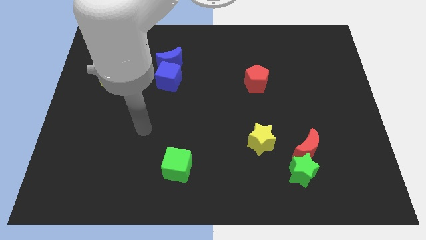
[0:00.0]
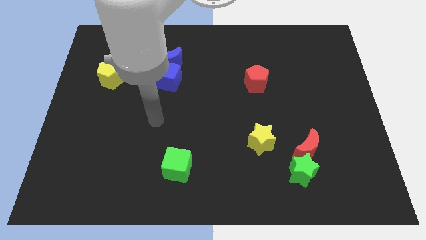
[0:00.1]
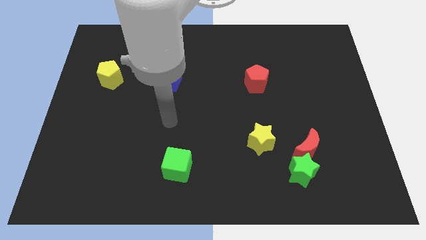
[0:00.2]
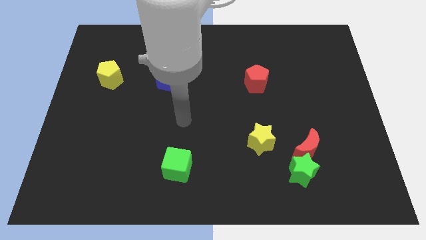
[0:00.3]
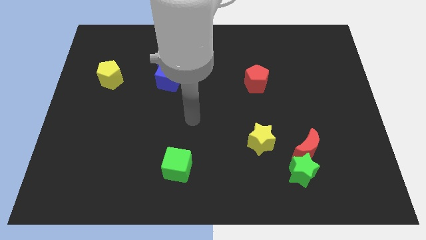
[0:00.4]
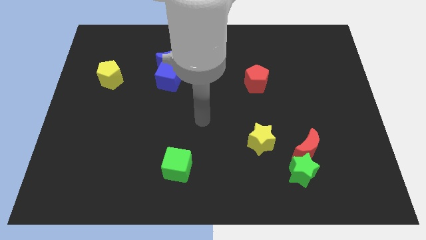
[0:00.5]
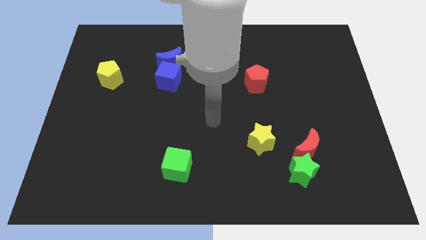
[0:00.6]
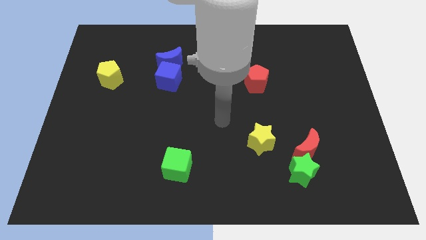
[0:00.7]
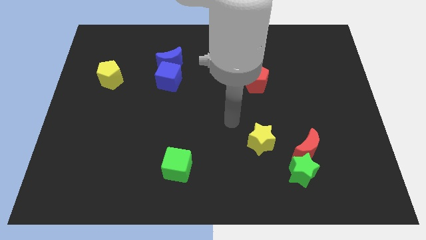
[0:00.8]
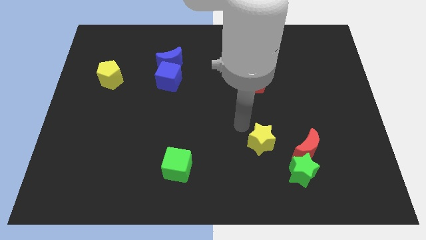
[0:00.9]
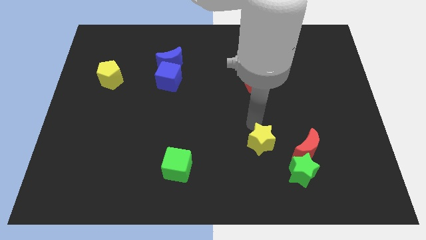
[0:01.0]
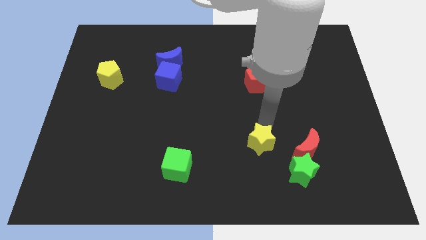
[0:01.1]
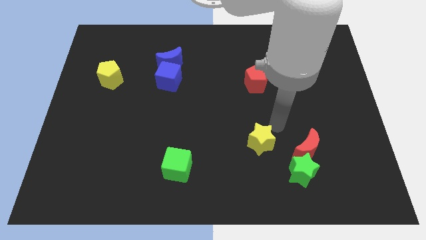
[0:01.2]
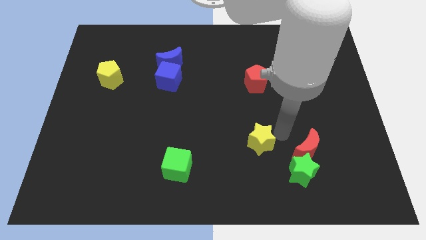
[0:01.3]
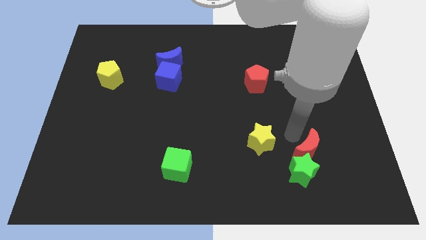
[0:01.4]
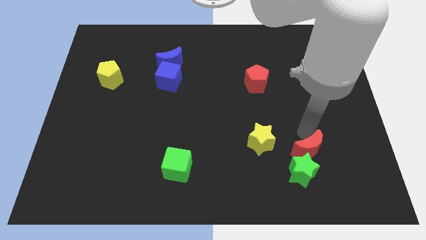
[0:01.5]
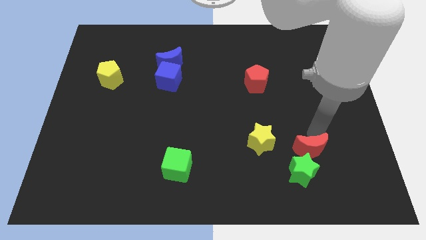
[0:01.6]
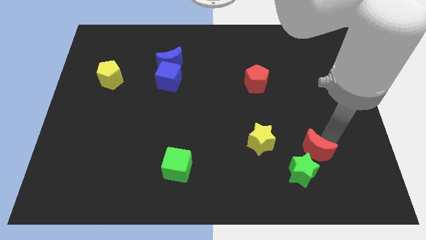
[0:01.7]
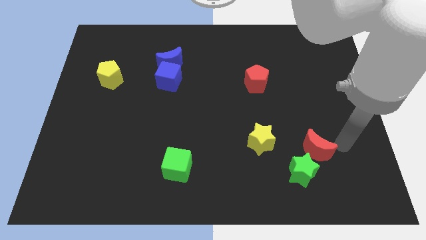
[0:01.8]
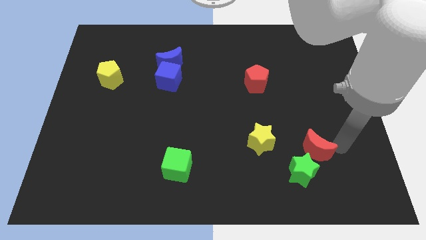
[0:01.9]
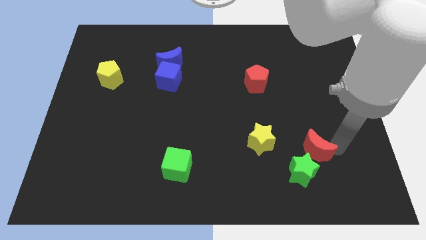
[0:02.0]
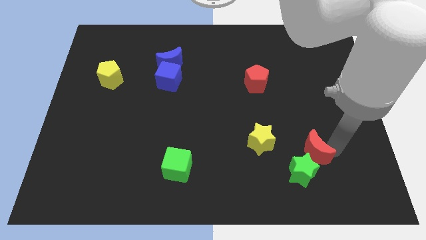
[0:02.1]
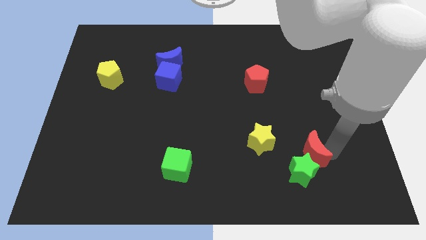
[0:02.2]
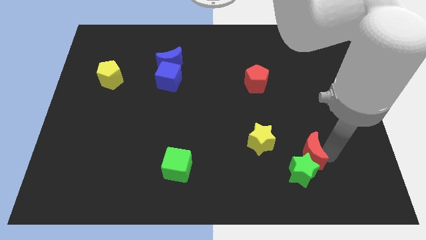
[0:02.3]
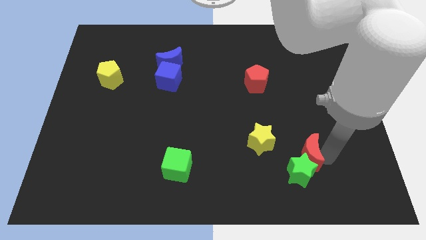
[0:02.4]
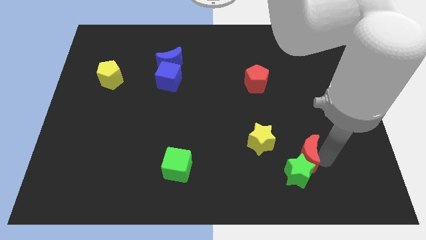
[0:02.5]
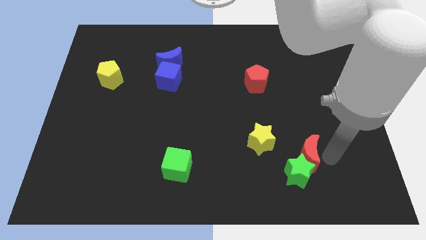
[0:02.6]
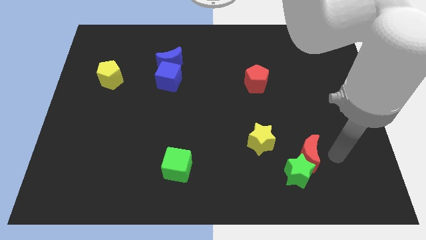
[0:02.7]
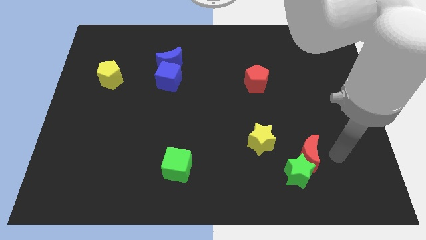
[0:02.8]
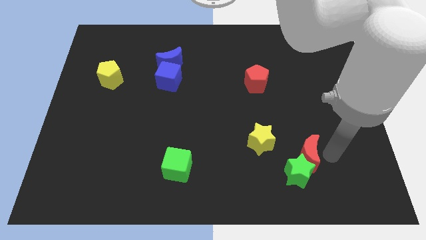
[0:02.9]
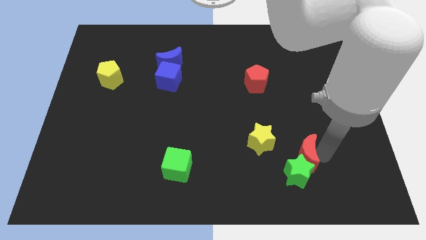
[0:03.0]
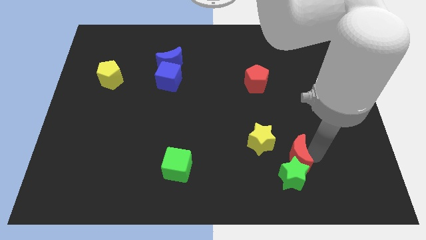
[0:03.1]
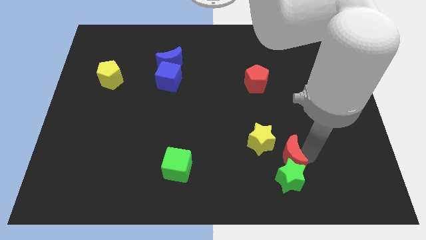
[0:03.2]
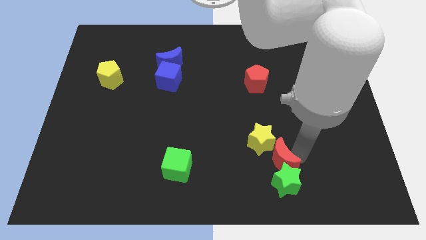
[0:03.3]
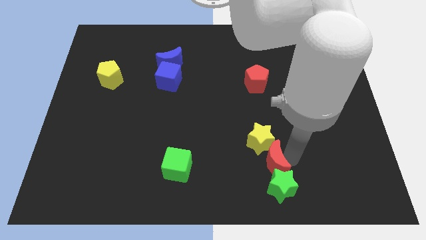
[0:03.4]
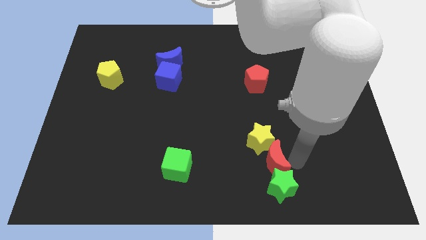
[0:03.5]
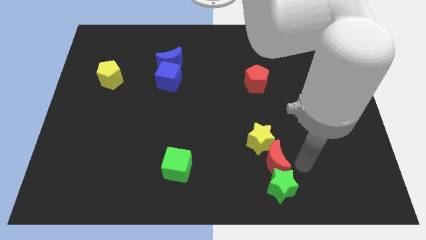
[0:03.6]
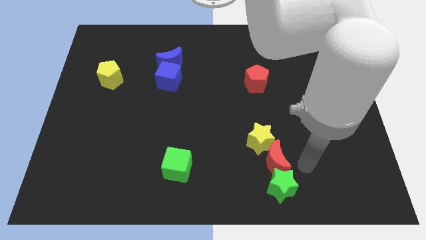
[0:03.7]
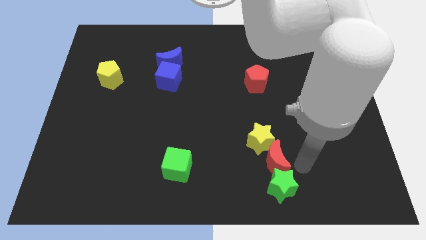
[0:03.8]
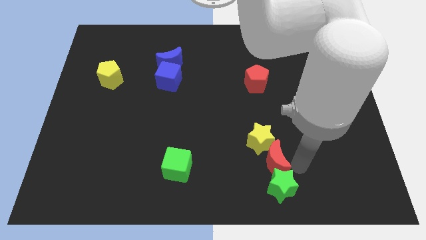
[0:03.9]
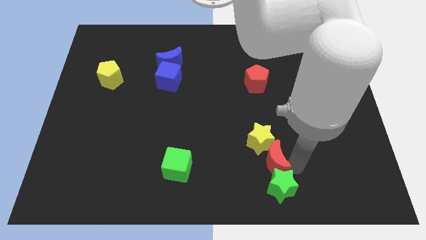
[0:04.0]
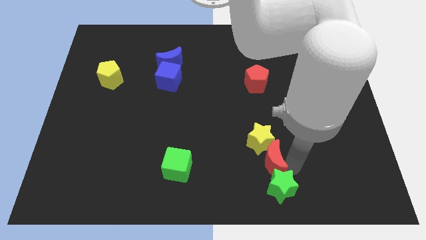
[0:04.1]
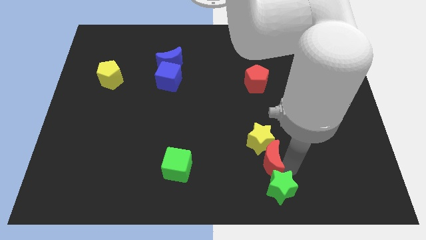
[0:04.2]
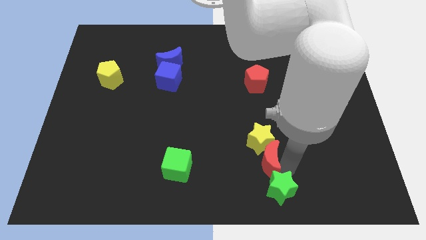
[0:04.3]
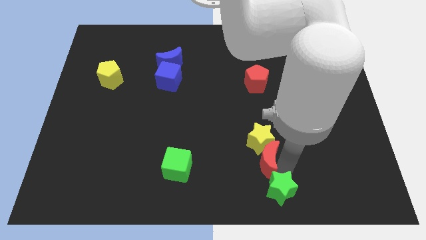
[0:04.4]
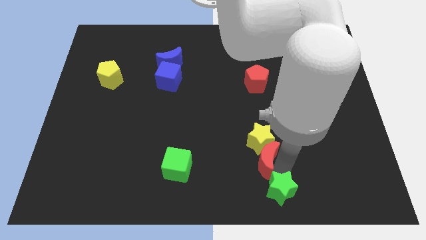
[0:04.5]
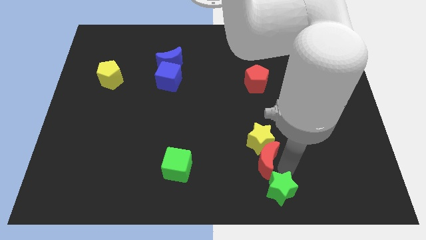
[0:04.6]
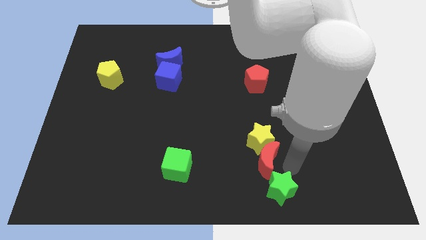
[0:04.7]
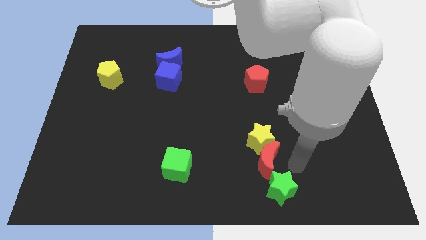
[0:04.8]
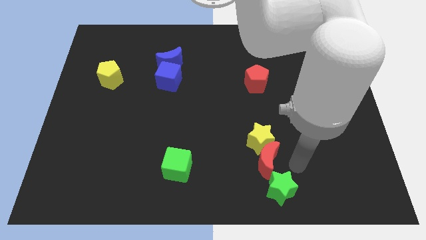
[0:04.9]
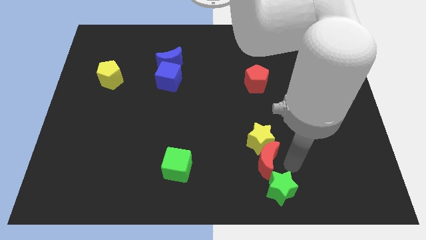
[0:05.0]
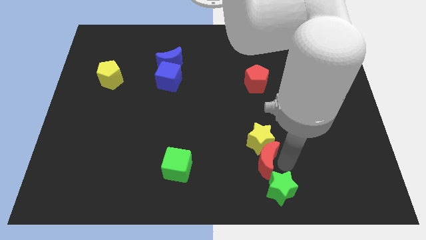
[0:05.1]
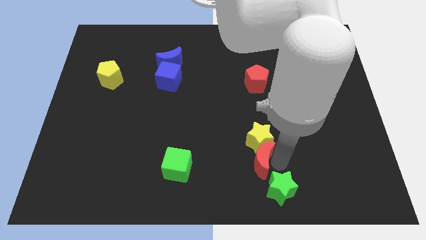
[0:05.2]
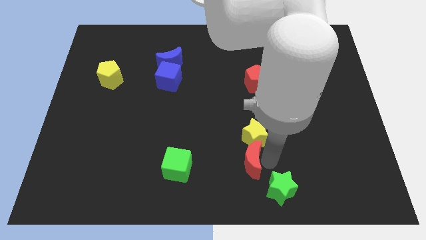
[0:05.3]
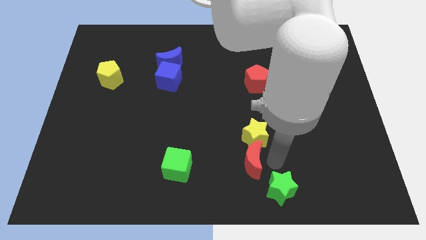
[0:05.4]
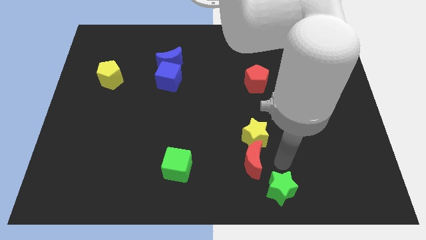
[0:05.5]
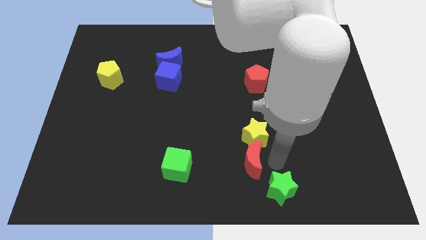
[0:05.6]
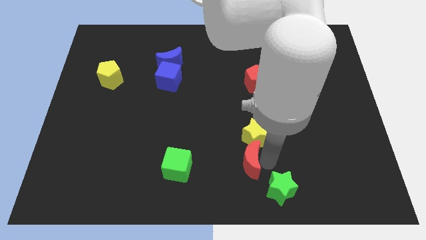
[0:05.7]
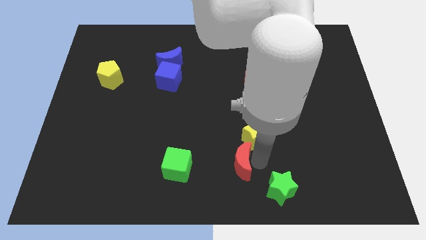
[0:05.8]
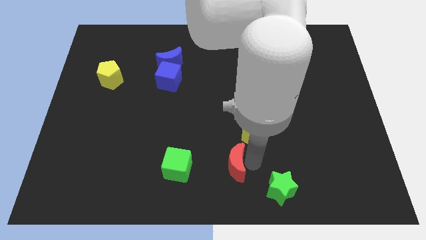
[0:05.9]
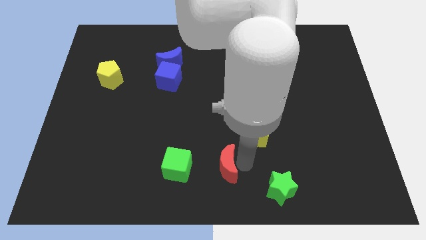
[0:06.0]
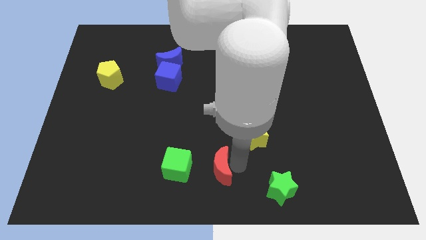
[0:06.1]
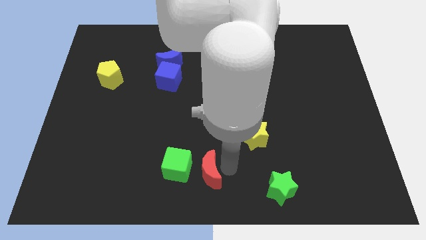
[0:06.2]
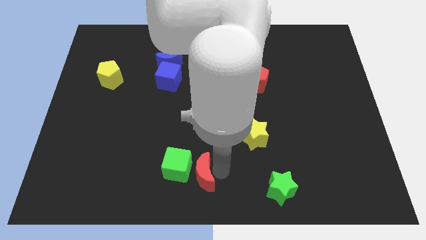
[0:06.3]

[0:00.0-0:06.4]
slide the red moon next to the green cube

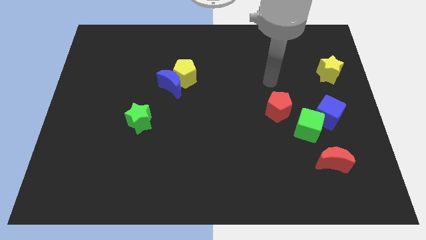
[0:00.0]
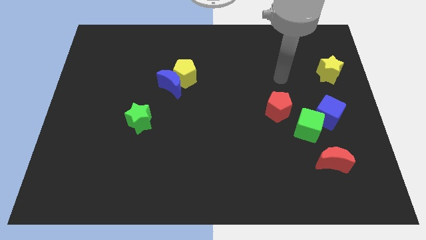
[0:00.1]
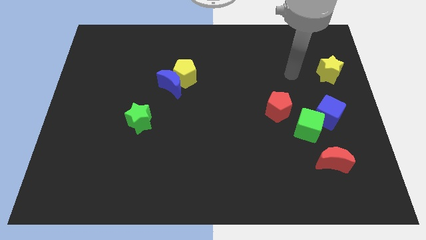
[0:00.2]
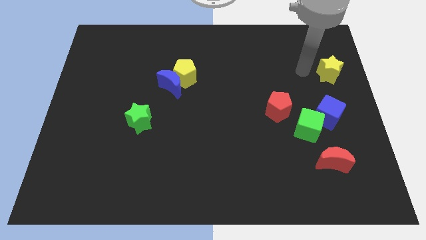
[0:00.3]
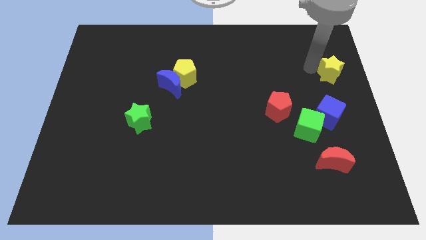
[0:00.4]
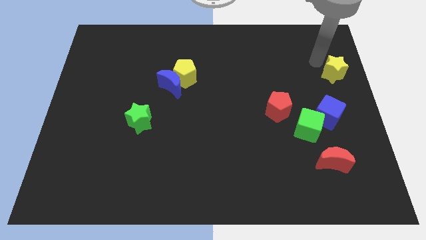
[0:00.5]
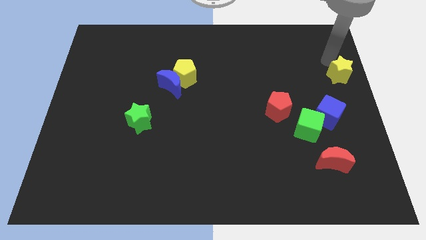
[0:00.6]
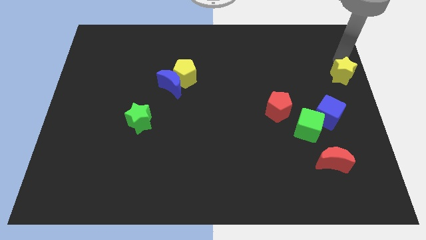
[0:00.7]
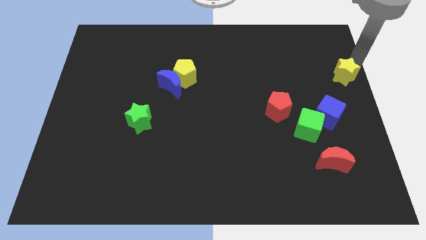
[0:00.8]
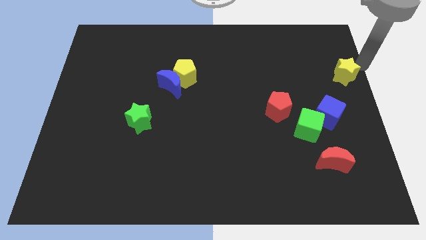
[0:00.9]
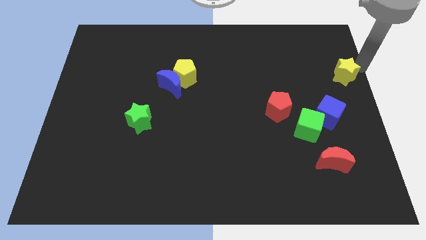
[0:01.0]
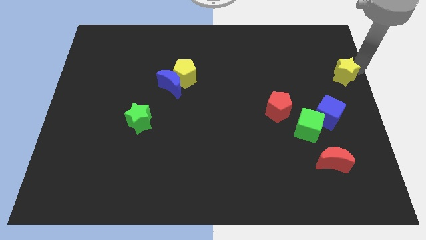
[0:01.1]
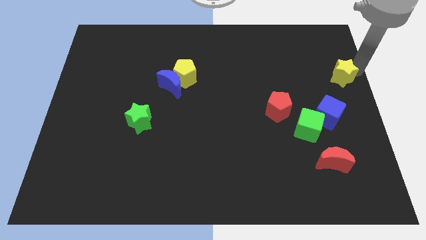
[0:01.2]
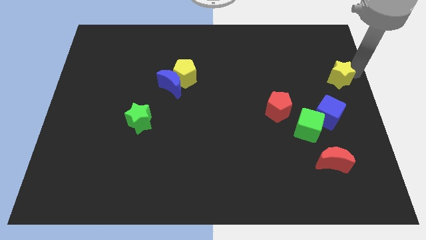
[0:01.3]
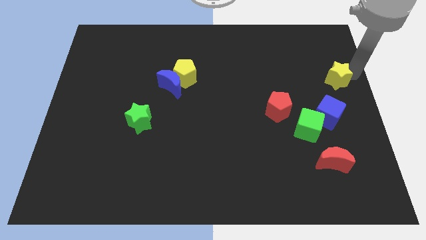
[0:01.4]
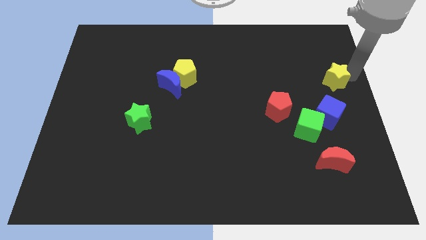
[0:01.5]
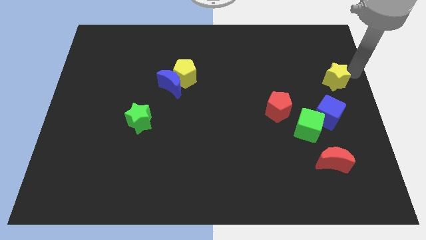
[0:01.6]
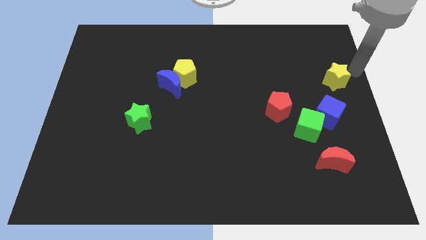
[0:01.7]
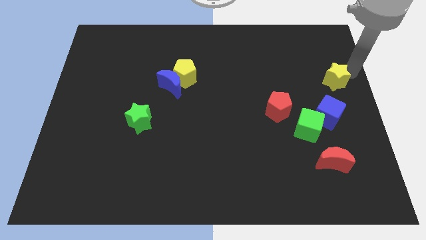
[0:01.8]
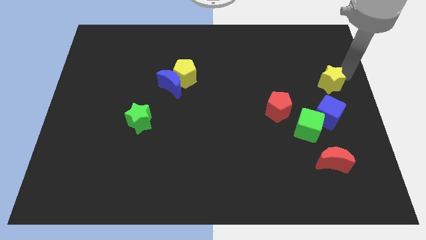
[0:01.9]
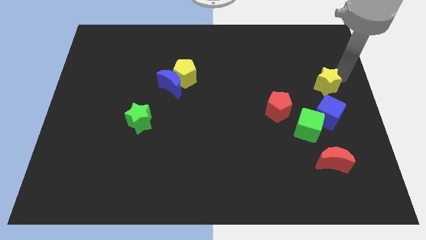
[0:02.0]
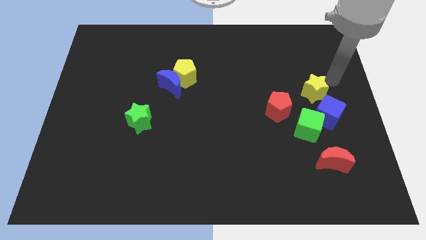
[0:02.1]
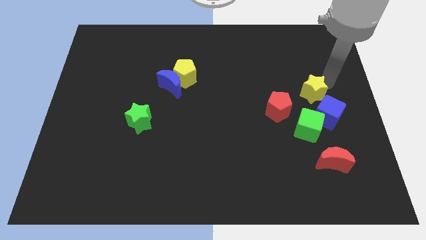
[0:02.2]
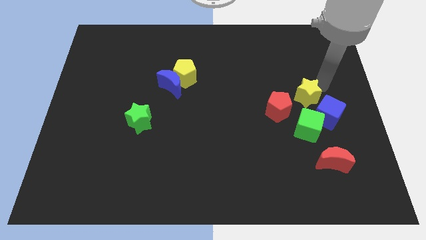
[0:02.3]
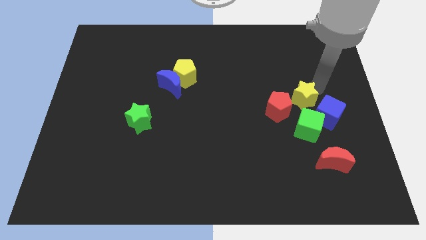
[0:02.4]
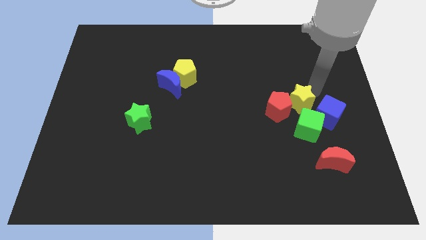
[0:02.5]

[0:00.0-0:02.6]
move the yellow star to the red pentagon
